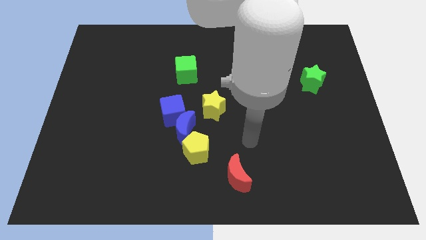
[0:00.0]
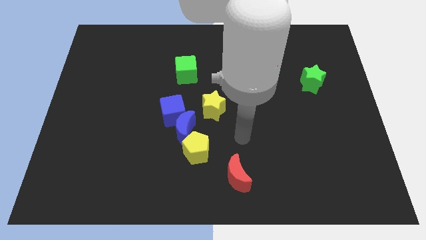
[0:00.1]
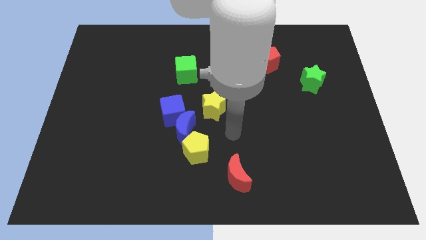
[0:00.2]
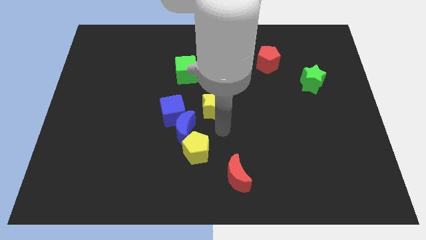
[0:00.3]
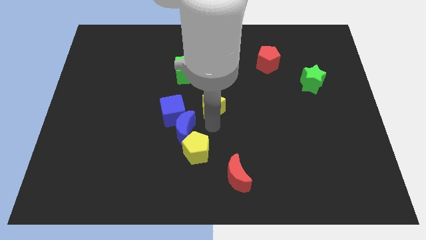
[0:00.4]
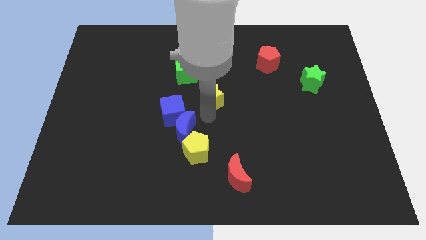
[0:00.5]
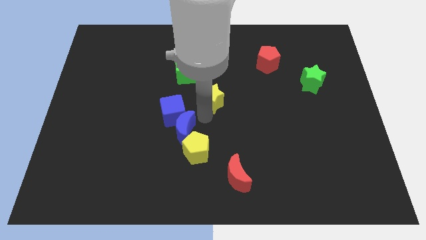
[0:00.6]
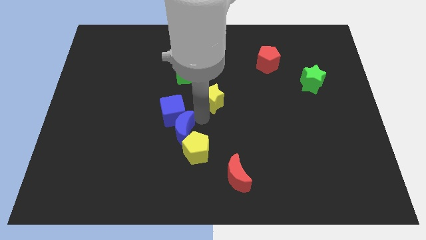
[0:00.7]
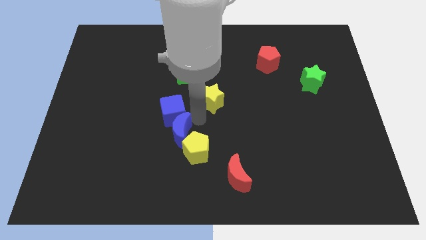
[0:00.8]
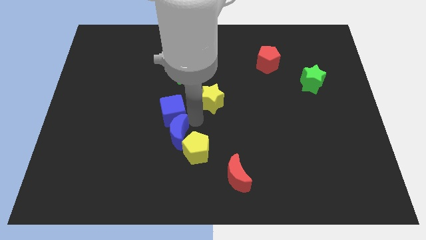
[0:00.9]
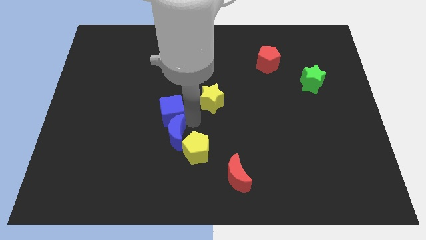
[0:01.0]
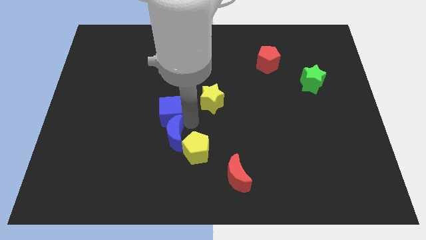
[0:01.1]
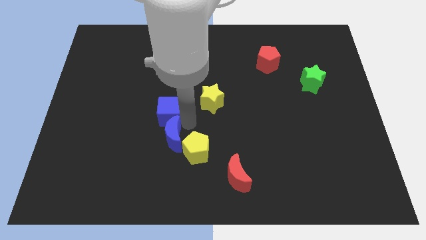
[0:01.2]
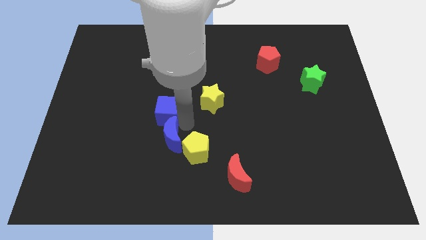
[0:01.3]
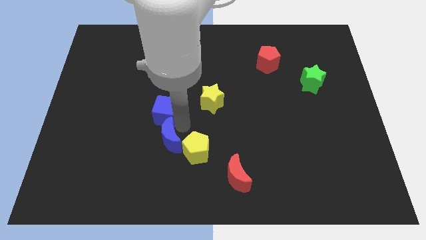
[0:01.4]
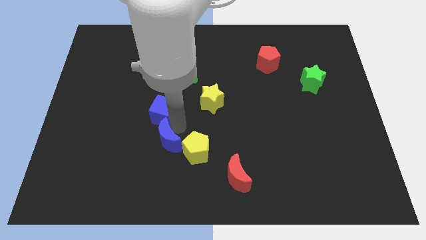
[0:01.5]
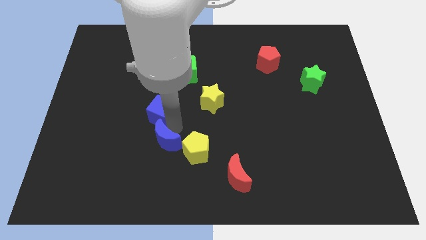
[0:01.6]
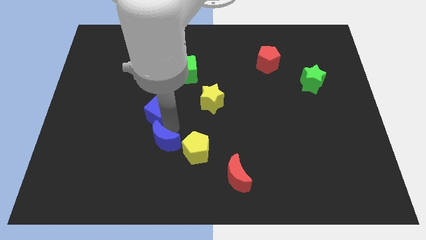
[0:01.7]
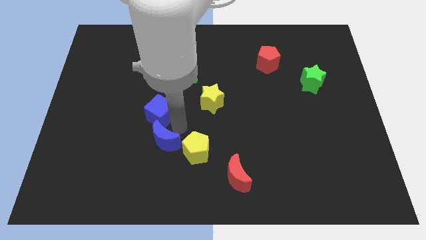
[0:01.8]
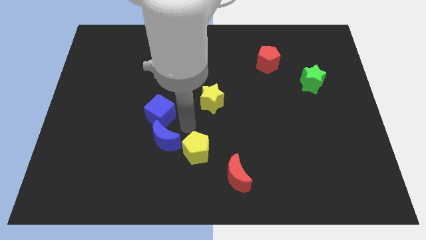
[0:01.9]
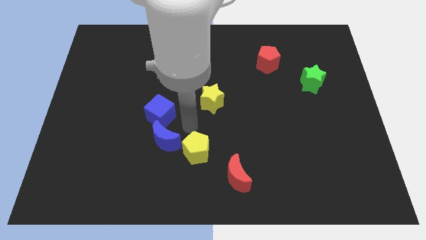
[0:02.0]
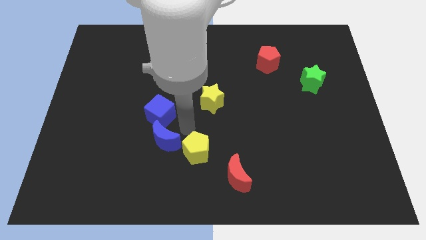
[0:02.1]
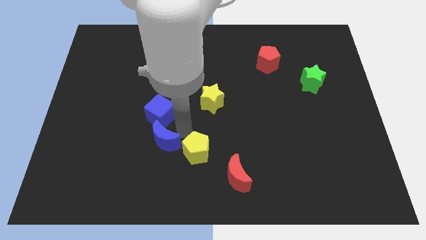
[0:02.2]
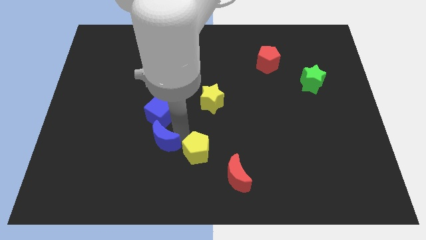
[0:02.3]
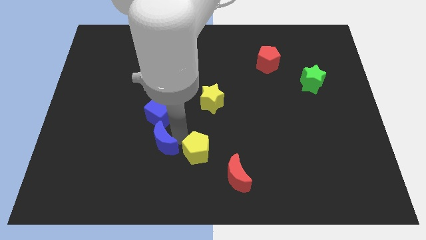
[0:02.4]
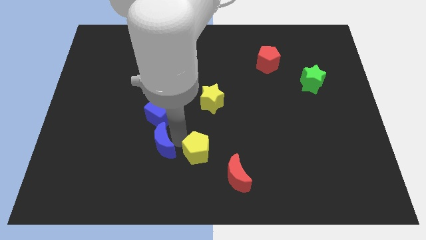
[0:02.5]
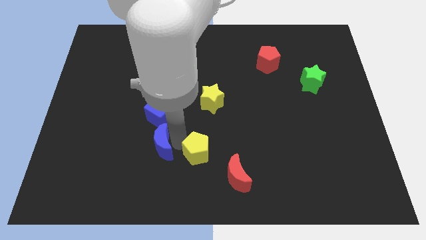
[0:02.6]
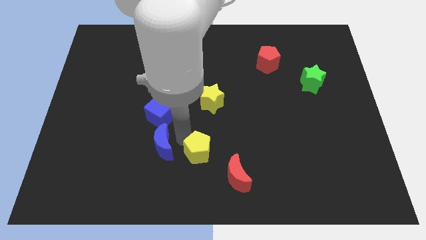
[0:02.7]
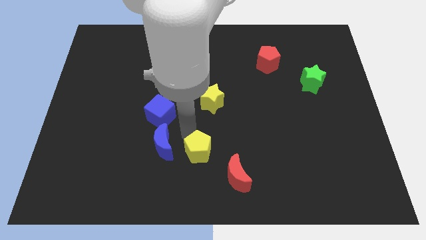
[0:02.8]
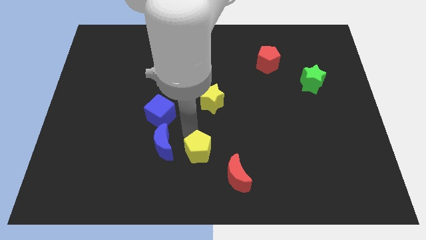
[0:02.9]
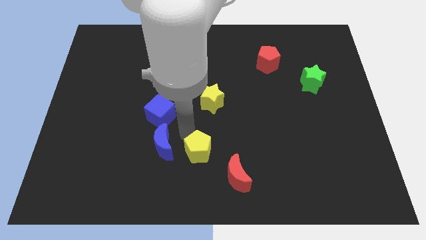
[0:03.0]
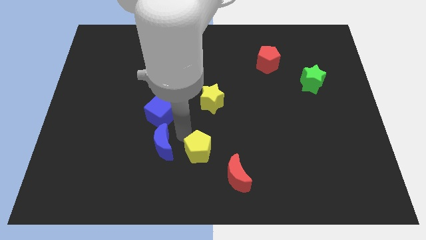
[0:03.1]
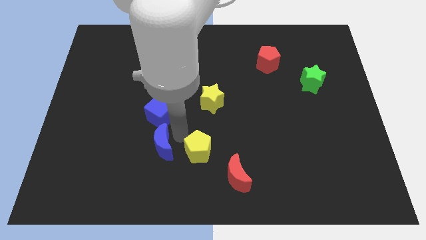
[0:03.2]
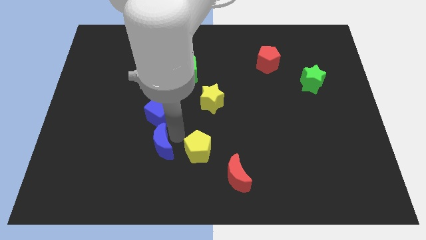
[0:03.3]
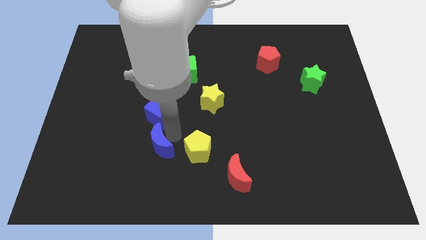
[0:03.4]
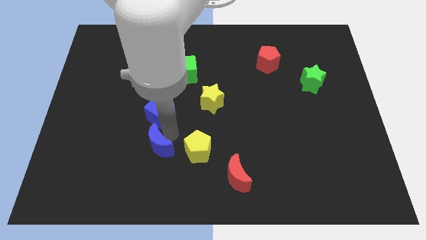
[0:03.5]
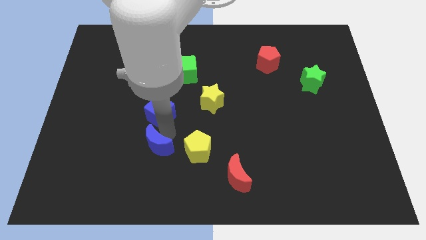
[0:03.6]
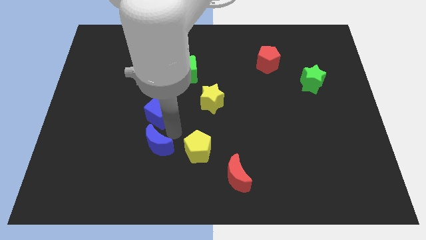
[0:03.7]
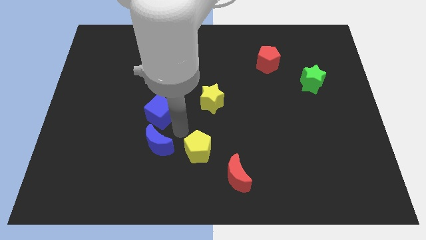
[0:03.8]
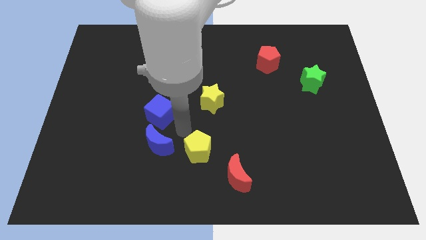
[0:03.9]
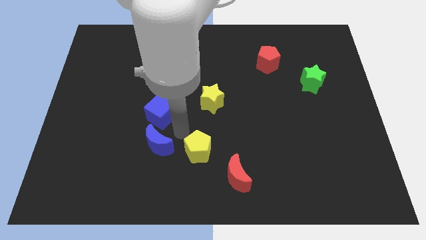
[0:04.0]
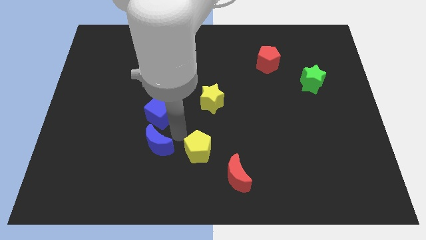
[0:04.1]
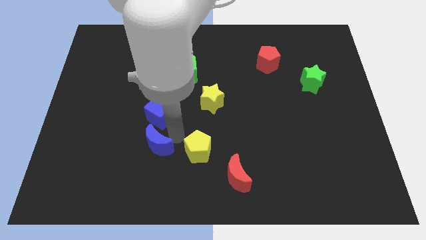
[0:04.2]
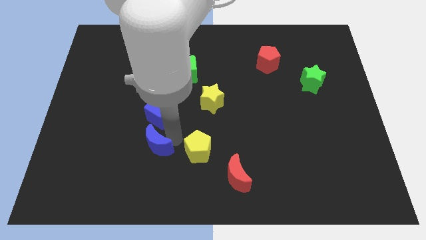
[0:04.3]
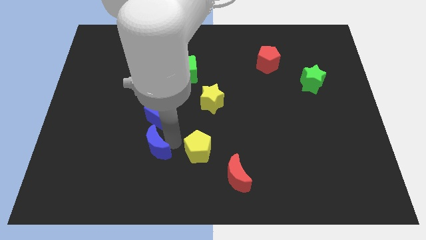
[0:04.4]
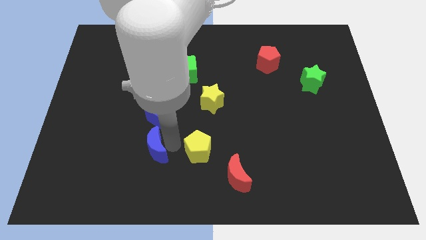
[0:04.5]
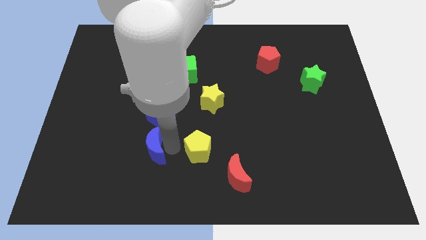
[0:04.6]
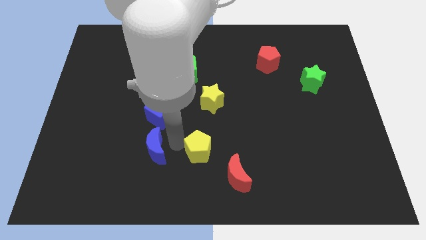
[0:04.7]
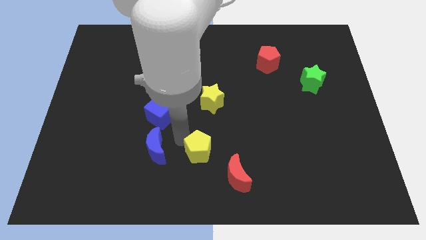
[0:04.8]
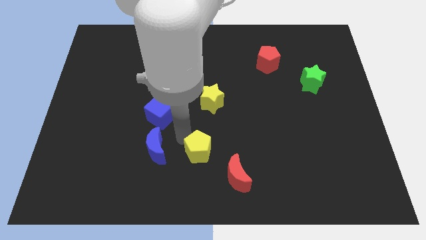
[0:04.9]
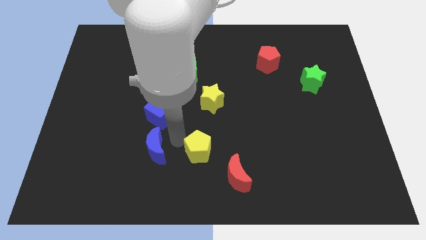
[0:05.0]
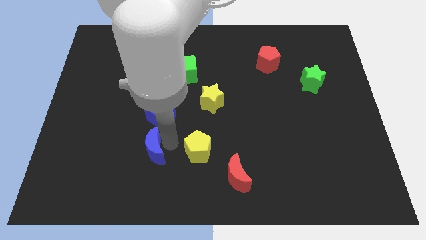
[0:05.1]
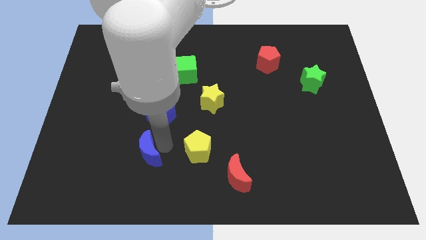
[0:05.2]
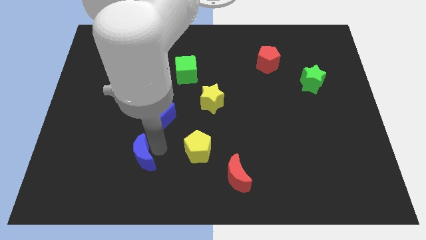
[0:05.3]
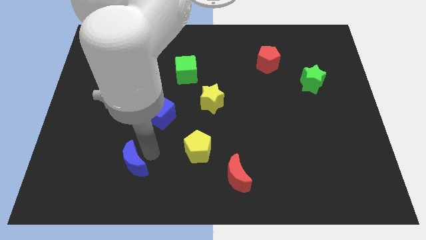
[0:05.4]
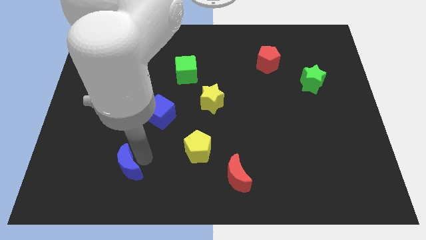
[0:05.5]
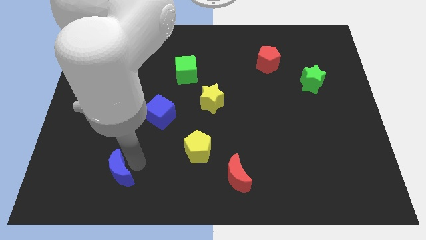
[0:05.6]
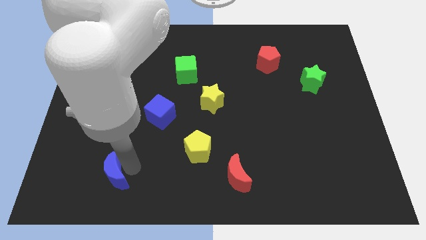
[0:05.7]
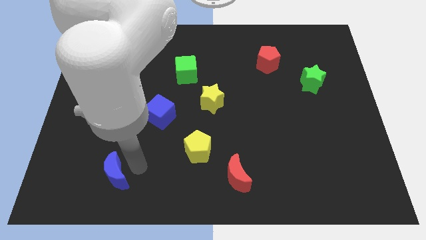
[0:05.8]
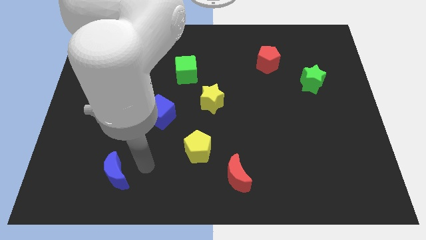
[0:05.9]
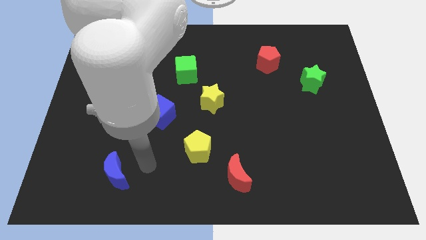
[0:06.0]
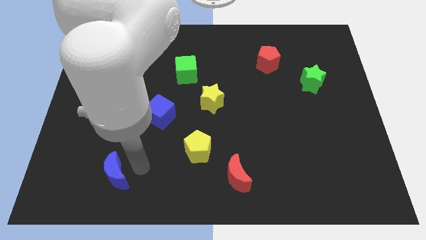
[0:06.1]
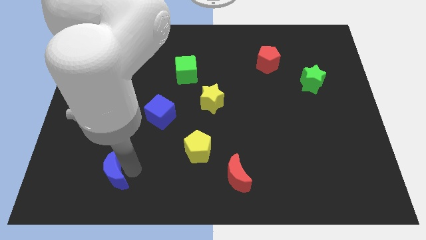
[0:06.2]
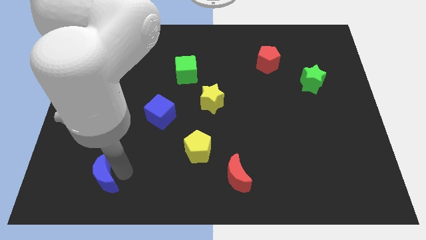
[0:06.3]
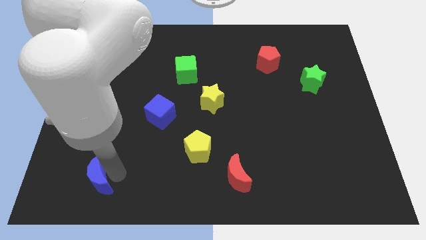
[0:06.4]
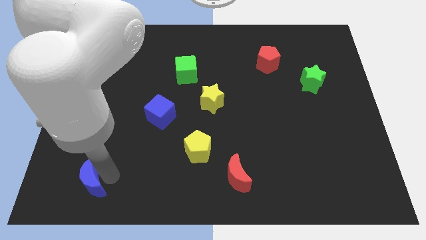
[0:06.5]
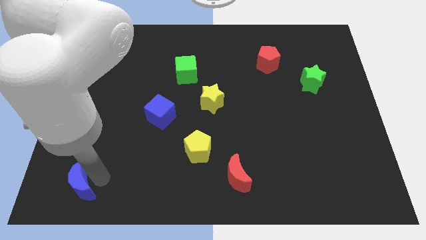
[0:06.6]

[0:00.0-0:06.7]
put the blue moon to the bottom left of the board
